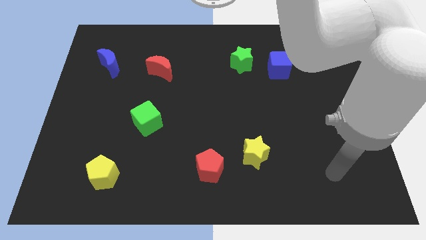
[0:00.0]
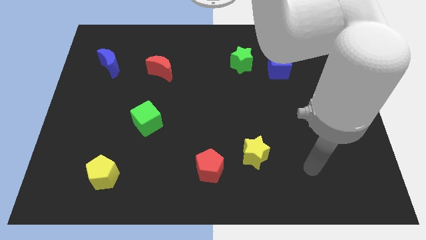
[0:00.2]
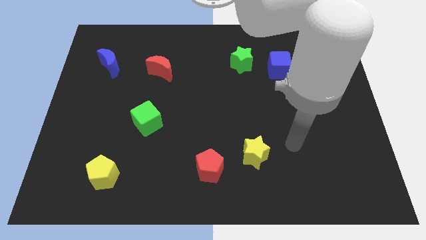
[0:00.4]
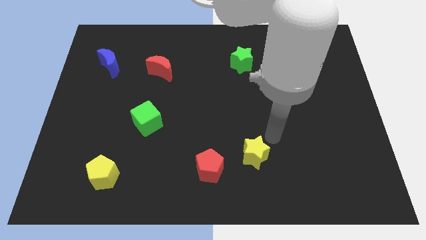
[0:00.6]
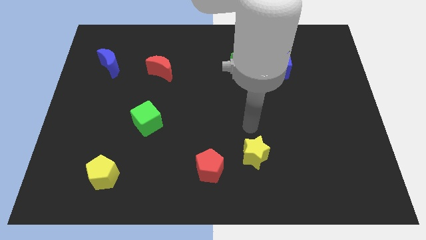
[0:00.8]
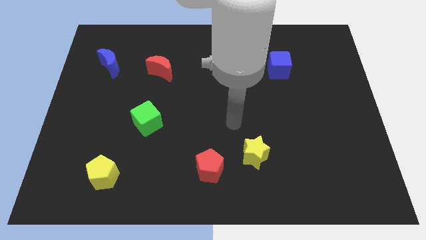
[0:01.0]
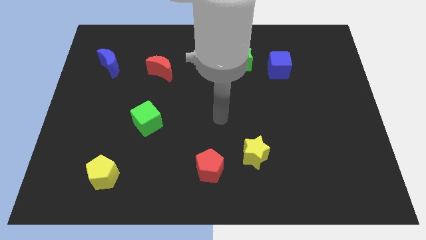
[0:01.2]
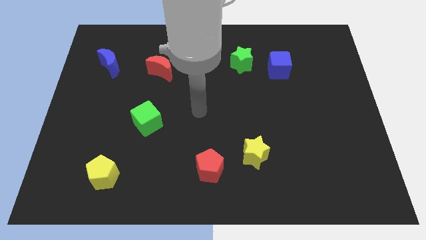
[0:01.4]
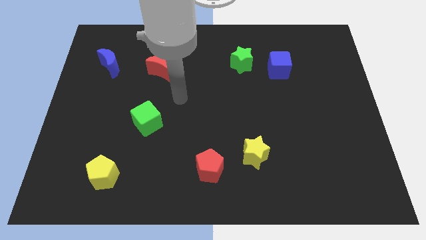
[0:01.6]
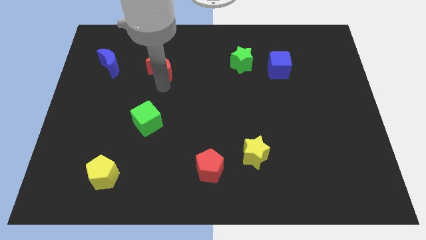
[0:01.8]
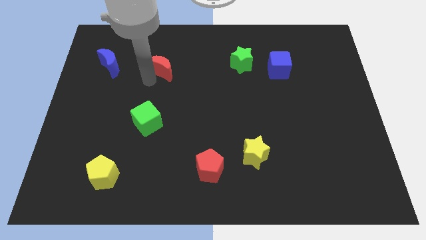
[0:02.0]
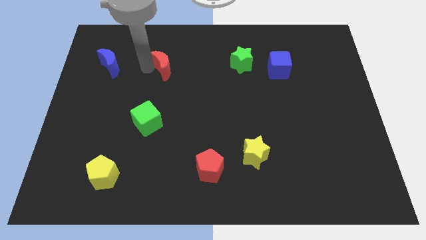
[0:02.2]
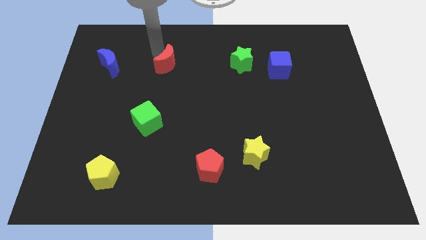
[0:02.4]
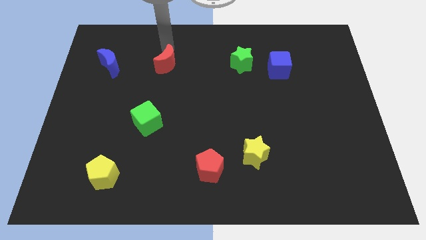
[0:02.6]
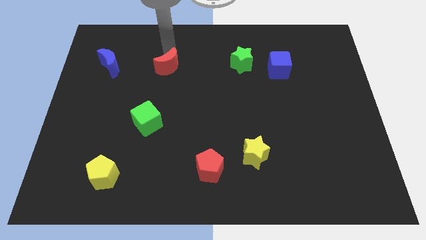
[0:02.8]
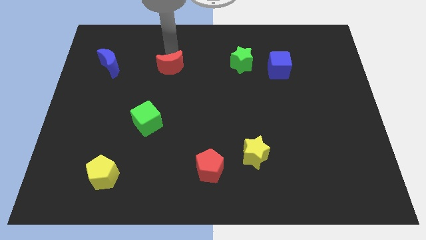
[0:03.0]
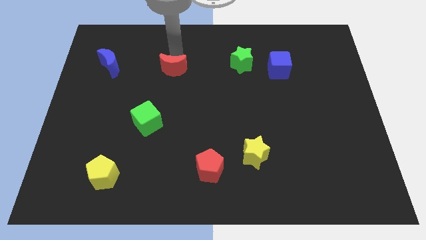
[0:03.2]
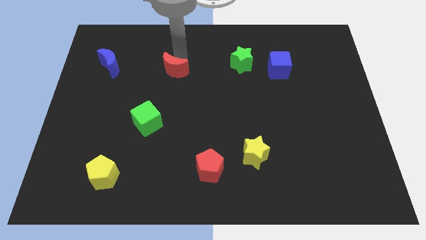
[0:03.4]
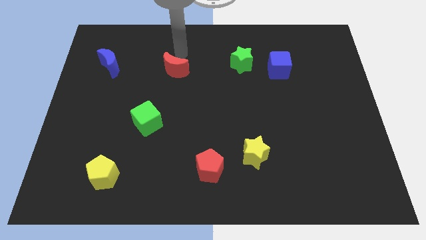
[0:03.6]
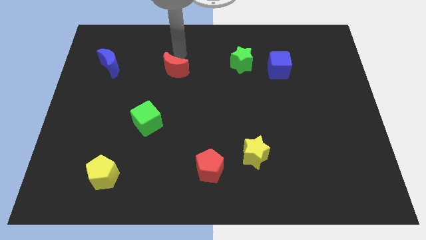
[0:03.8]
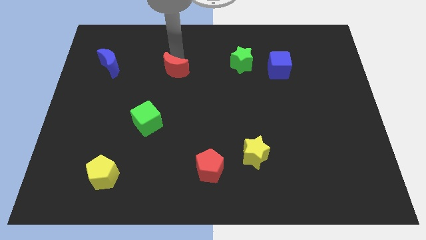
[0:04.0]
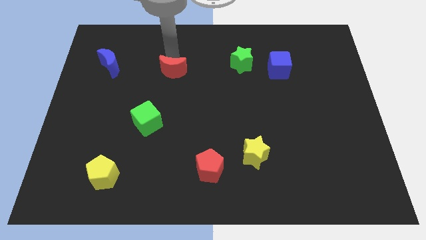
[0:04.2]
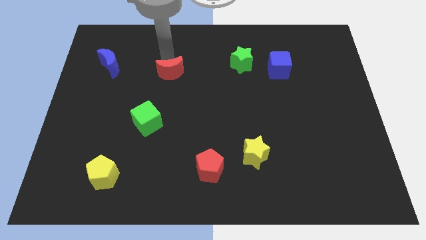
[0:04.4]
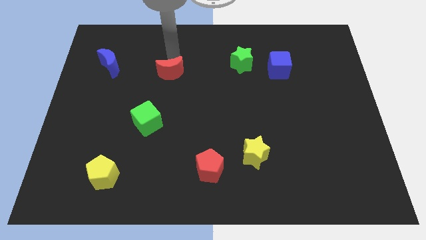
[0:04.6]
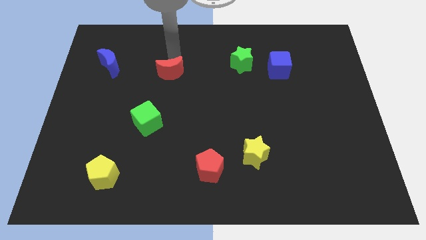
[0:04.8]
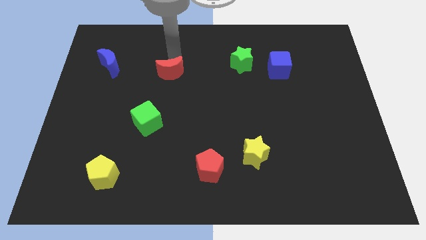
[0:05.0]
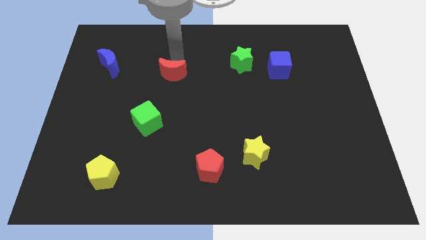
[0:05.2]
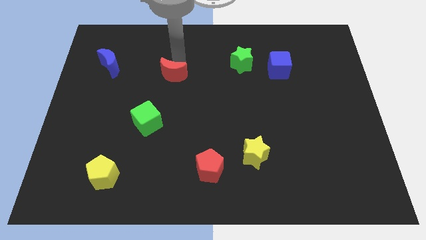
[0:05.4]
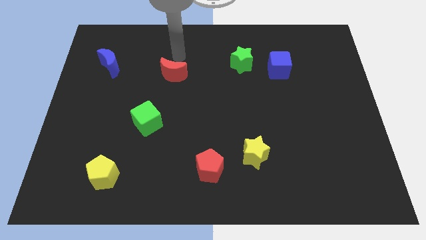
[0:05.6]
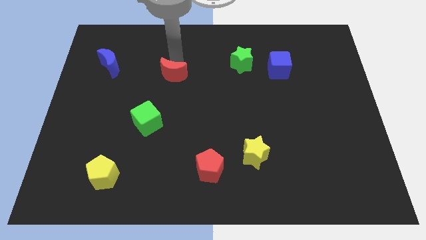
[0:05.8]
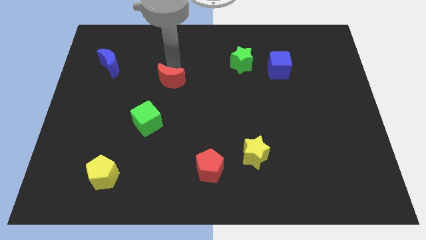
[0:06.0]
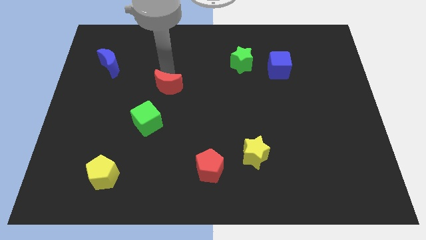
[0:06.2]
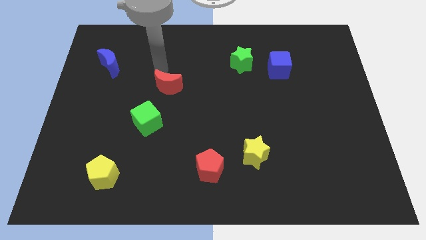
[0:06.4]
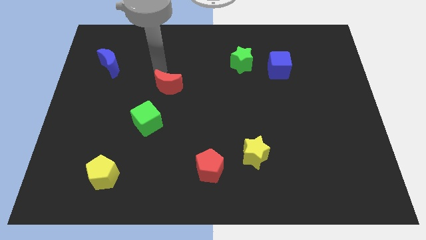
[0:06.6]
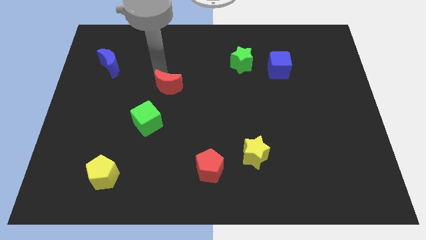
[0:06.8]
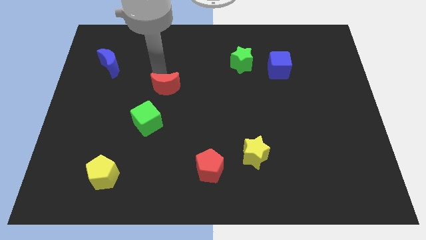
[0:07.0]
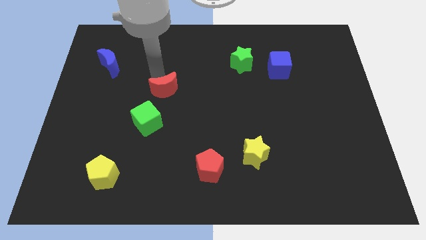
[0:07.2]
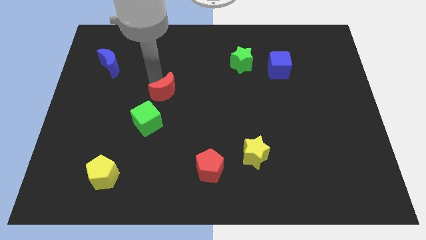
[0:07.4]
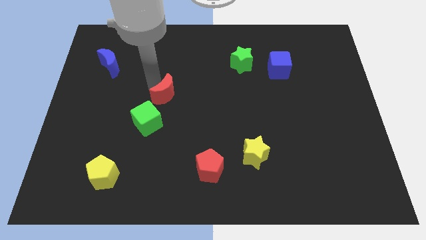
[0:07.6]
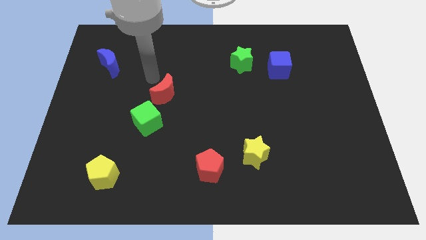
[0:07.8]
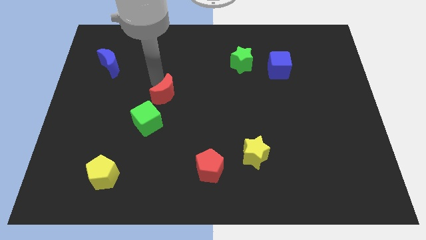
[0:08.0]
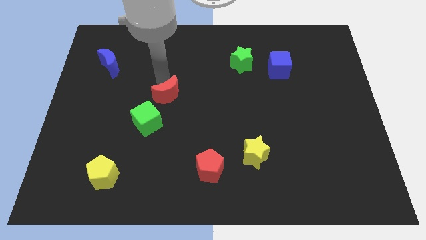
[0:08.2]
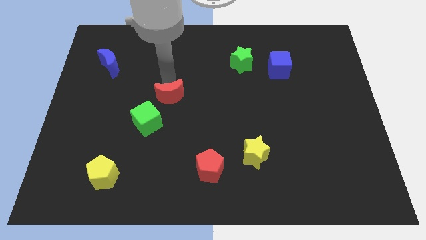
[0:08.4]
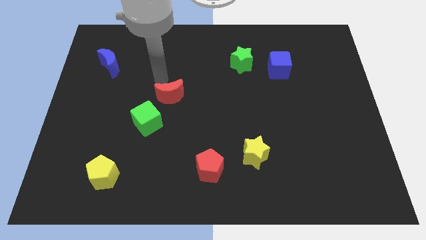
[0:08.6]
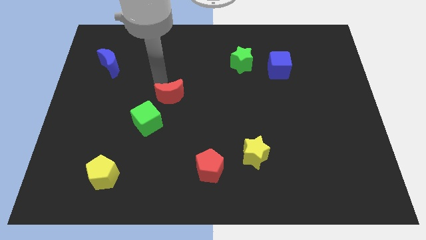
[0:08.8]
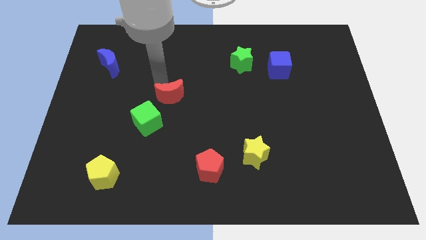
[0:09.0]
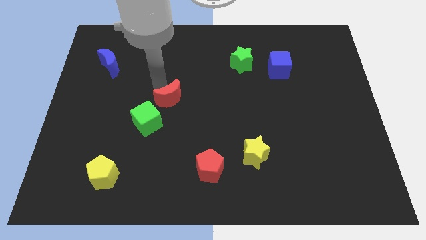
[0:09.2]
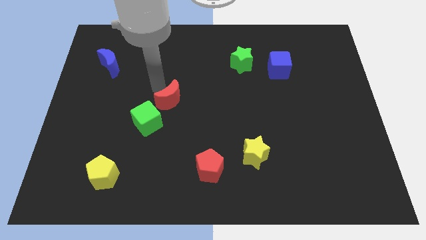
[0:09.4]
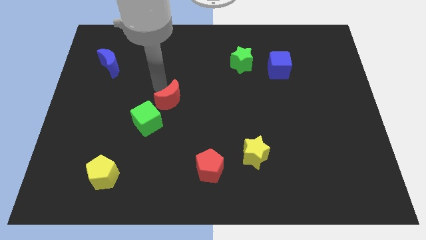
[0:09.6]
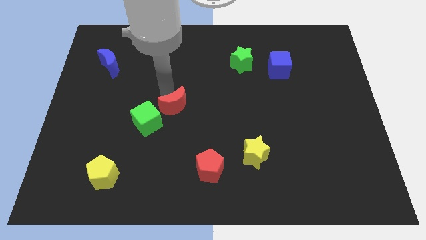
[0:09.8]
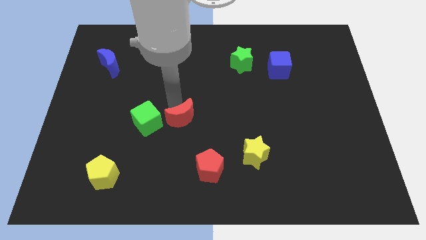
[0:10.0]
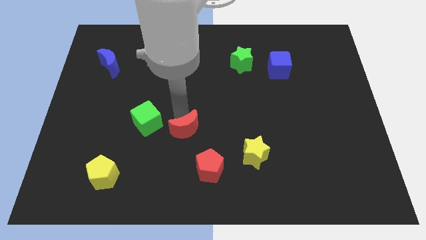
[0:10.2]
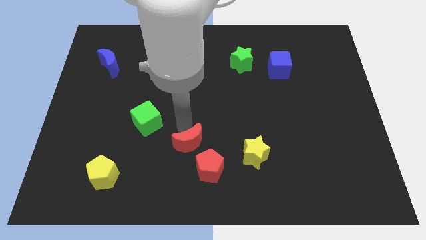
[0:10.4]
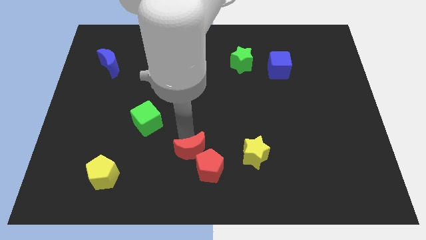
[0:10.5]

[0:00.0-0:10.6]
put the red moon next to the red pentagon

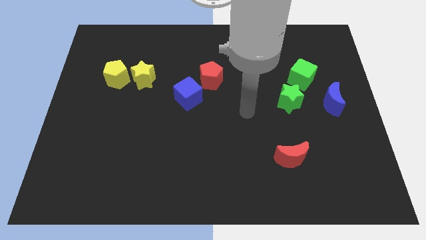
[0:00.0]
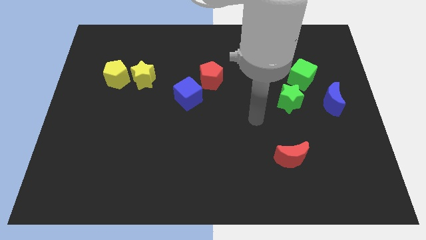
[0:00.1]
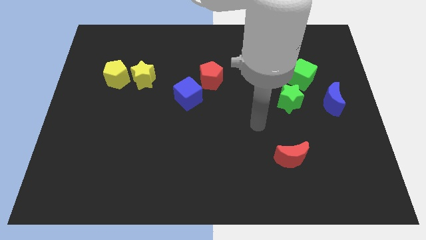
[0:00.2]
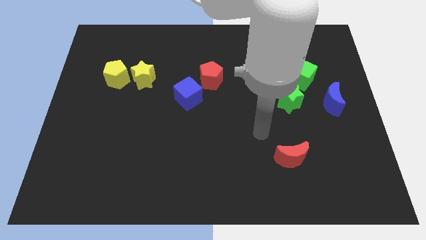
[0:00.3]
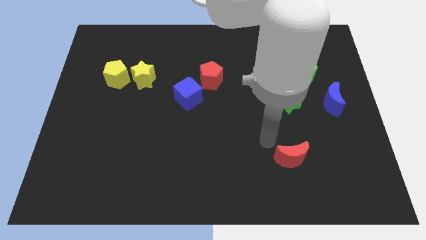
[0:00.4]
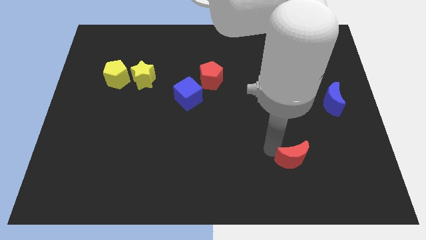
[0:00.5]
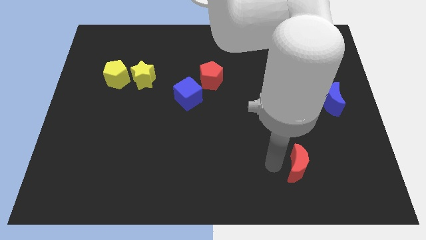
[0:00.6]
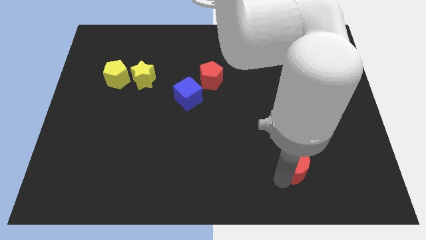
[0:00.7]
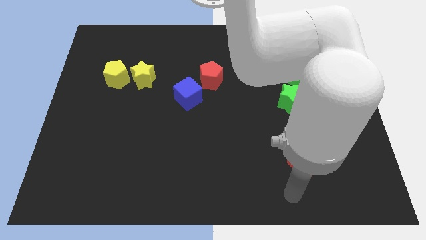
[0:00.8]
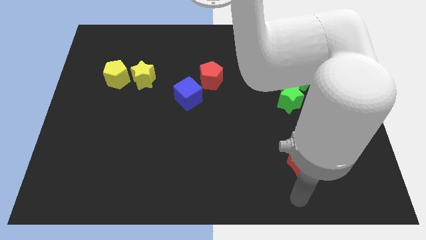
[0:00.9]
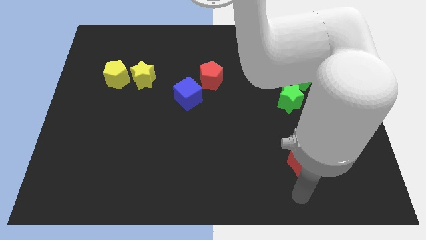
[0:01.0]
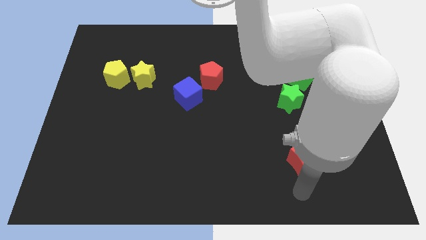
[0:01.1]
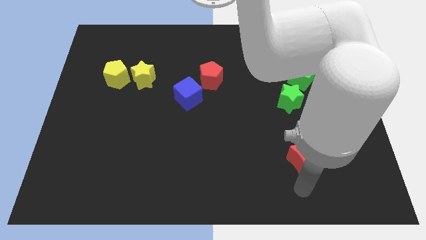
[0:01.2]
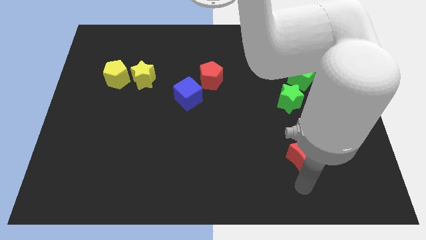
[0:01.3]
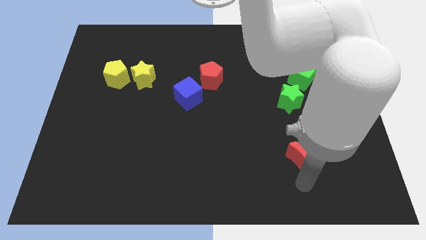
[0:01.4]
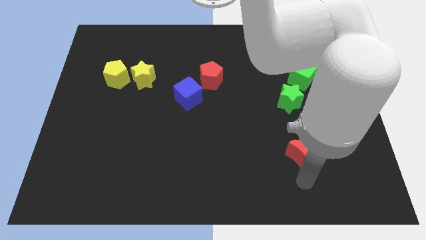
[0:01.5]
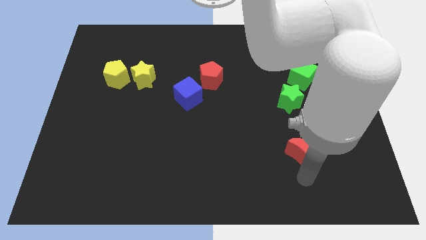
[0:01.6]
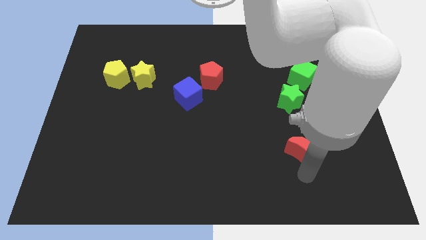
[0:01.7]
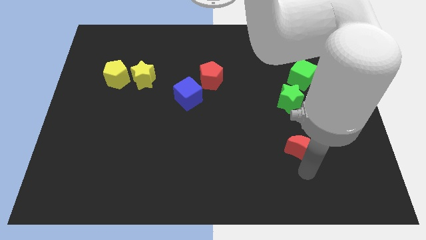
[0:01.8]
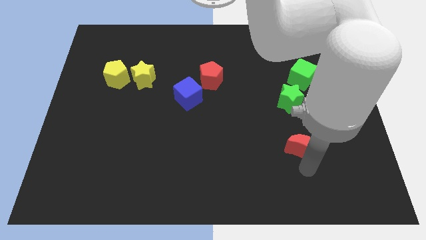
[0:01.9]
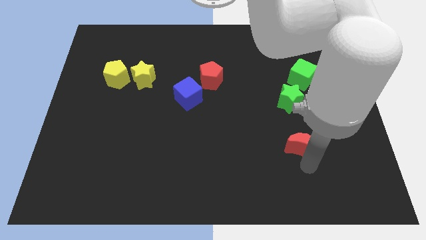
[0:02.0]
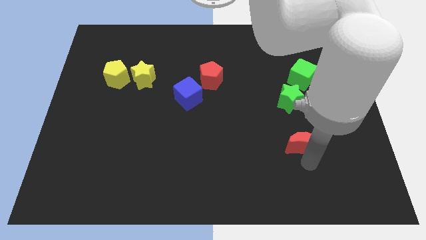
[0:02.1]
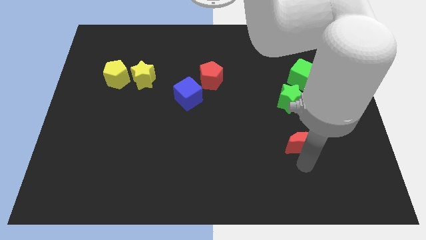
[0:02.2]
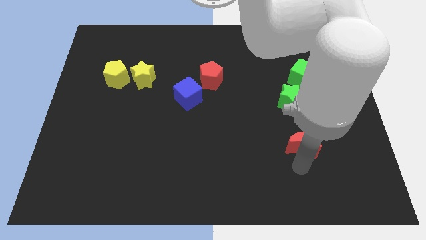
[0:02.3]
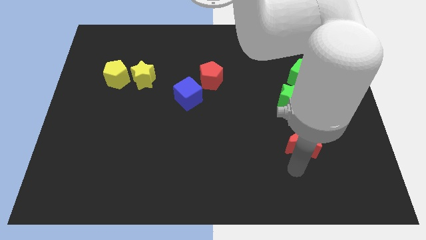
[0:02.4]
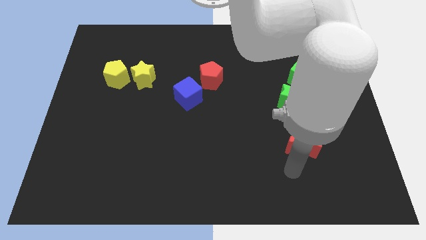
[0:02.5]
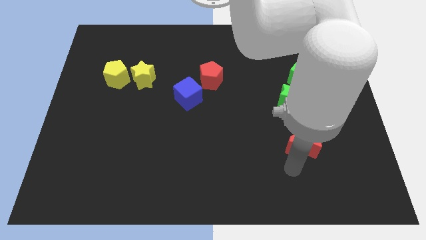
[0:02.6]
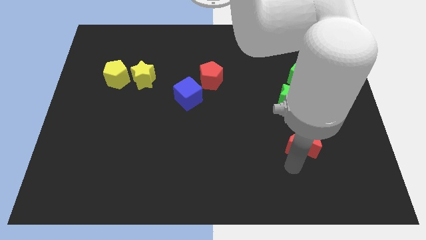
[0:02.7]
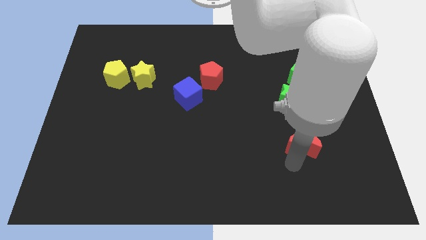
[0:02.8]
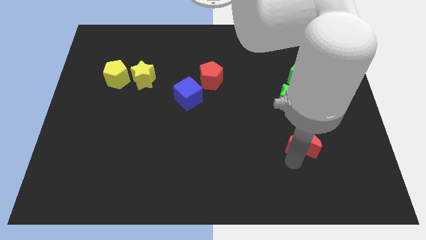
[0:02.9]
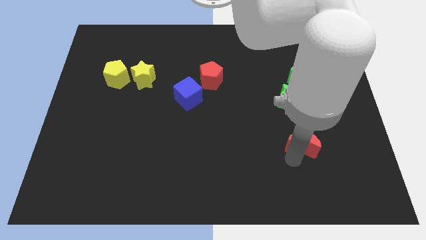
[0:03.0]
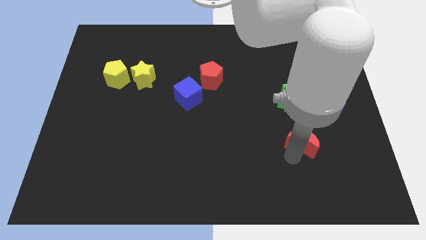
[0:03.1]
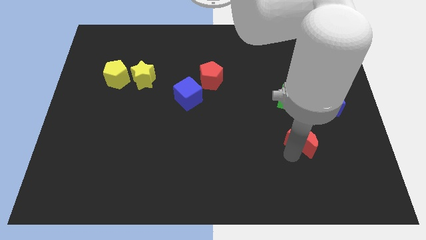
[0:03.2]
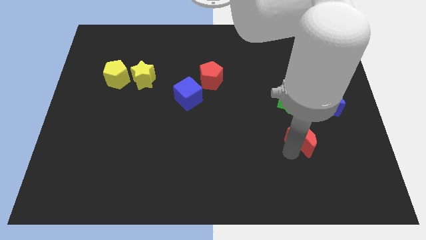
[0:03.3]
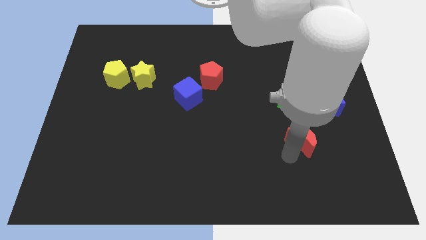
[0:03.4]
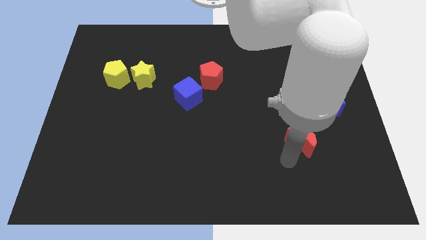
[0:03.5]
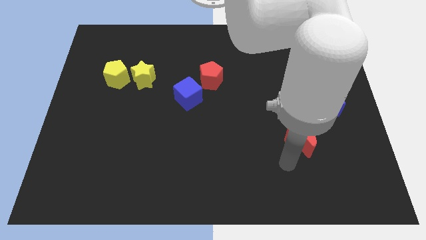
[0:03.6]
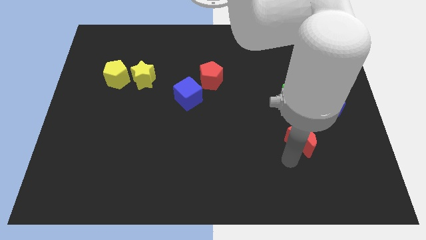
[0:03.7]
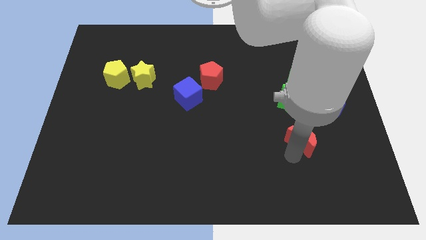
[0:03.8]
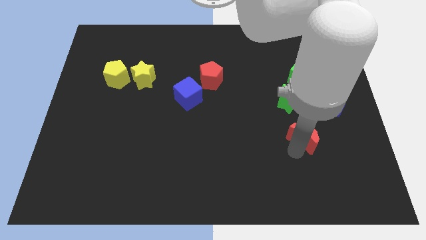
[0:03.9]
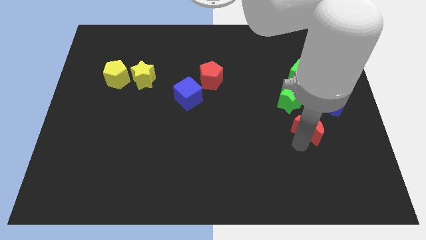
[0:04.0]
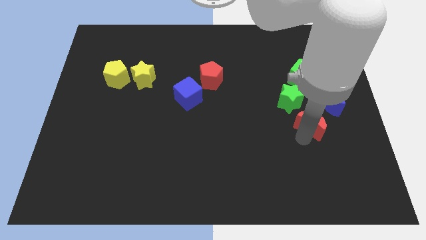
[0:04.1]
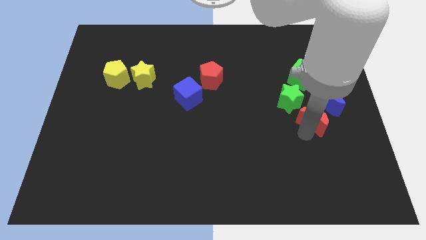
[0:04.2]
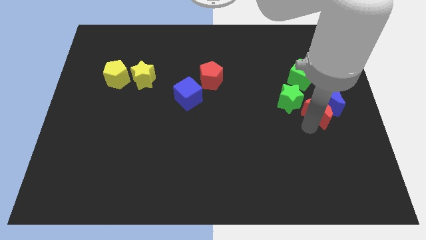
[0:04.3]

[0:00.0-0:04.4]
put the red moon towards the blue moon
